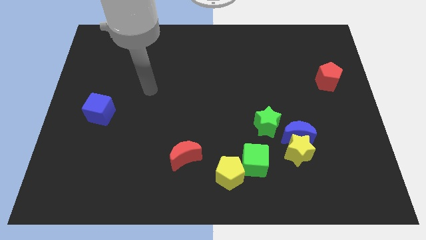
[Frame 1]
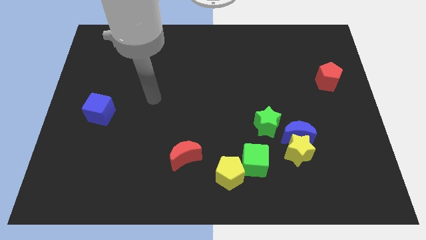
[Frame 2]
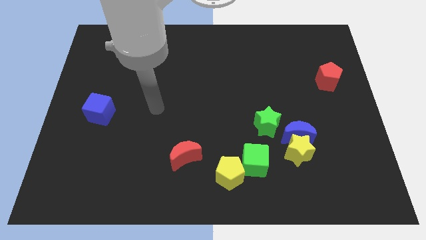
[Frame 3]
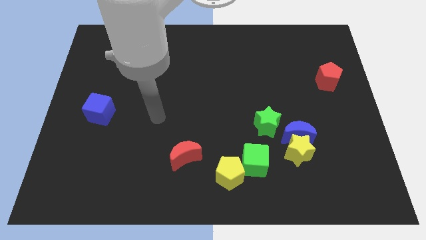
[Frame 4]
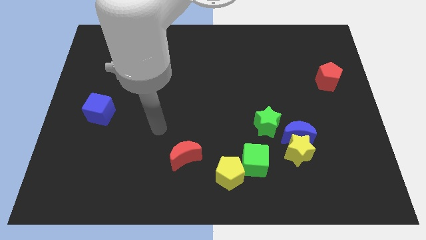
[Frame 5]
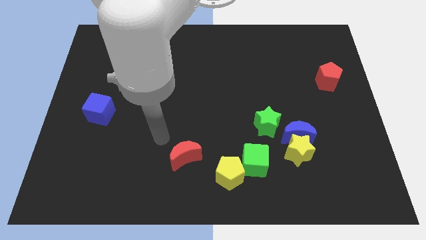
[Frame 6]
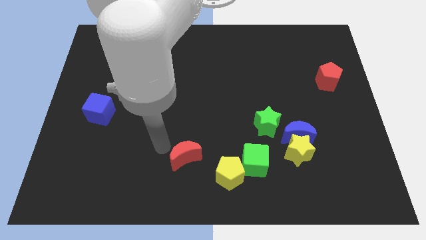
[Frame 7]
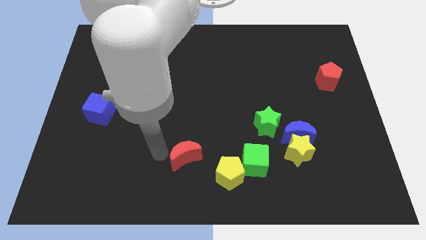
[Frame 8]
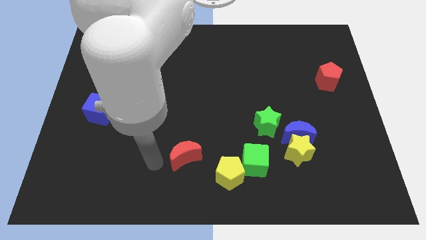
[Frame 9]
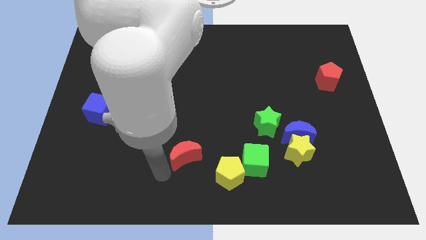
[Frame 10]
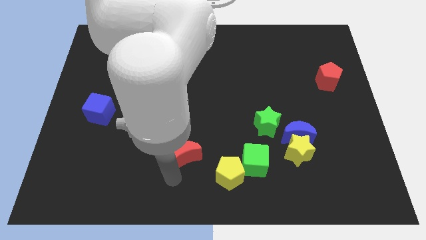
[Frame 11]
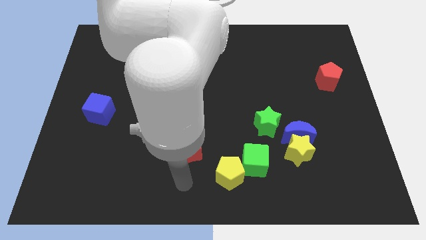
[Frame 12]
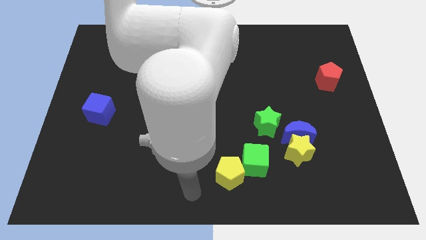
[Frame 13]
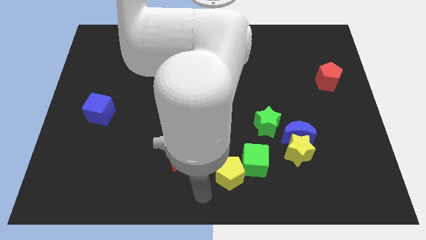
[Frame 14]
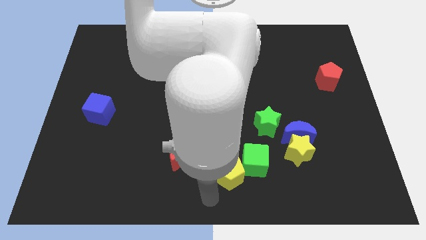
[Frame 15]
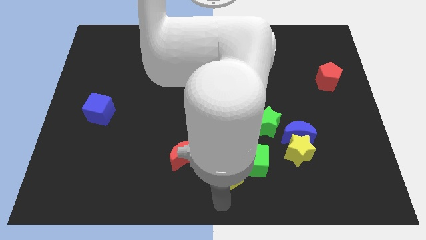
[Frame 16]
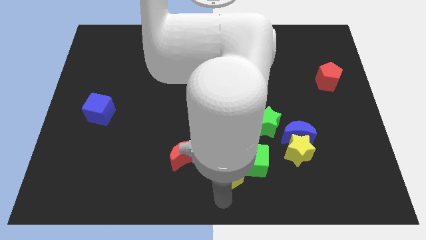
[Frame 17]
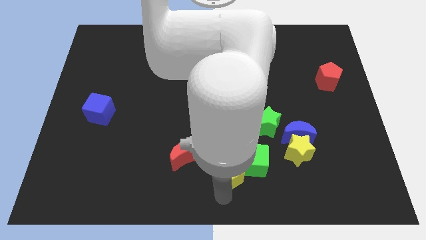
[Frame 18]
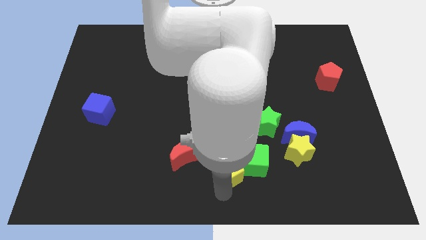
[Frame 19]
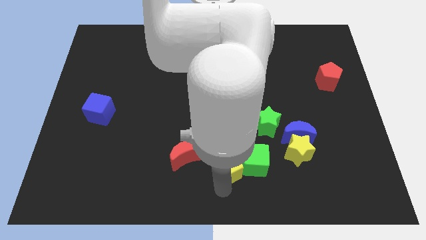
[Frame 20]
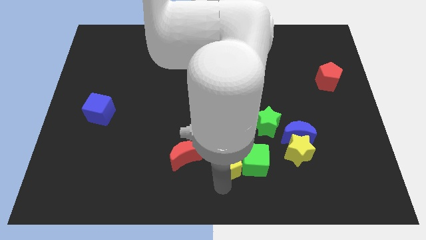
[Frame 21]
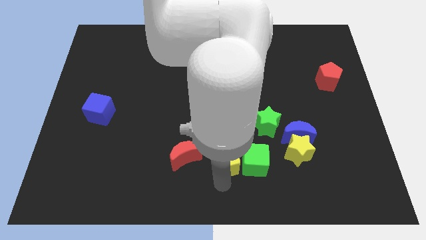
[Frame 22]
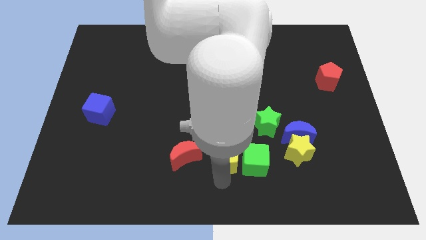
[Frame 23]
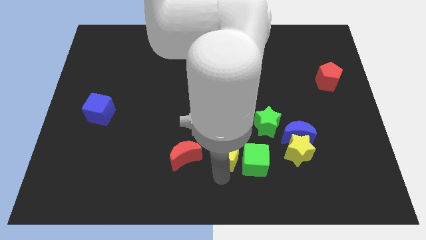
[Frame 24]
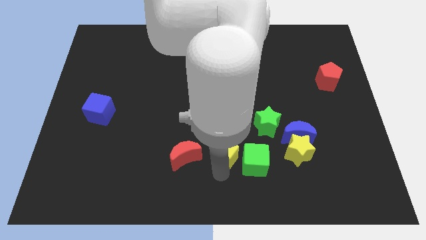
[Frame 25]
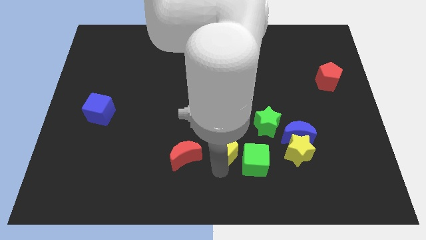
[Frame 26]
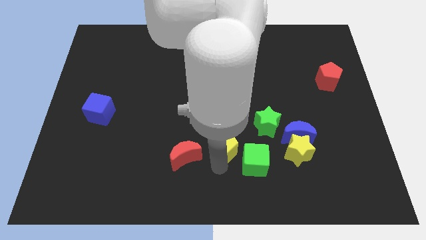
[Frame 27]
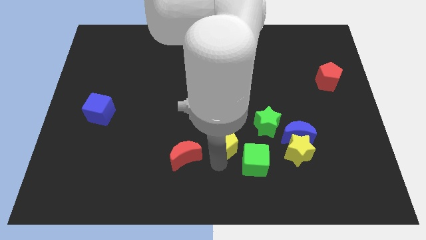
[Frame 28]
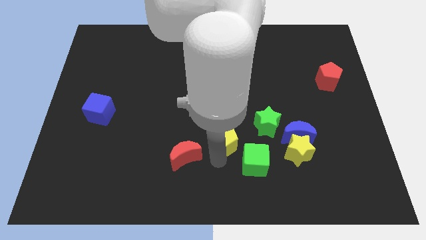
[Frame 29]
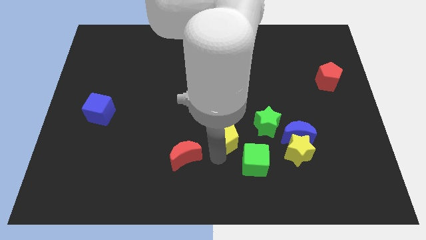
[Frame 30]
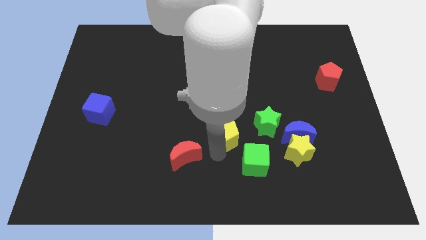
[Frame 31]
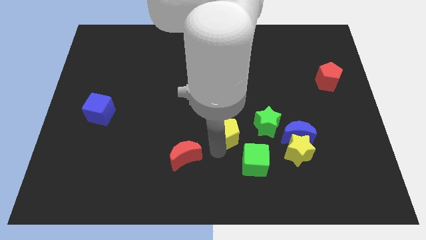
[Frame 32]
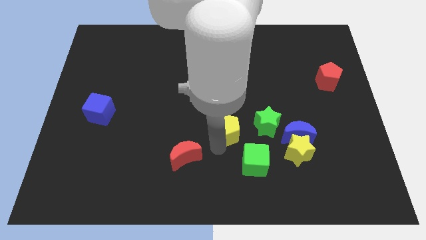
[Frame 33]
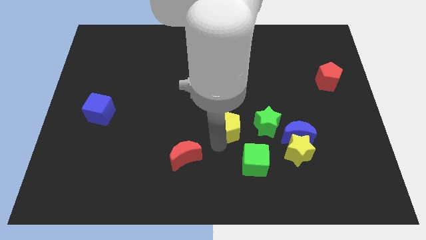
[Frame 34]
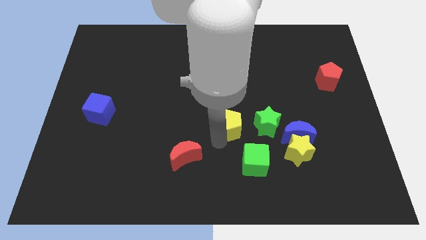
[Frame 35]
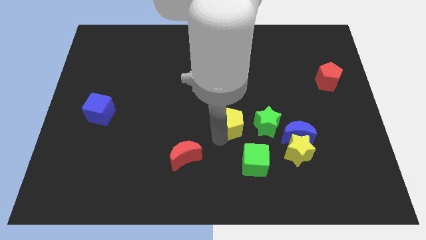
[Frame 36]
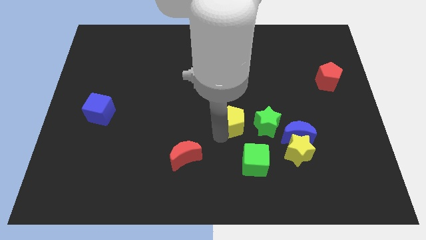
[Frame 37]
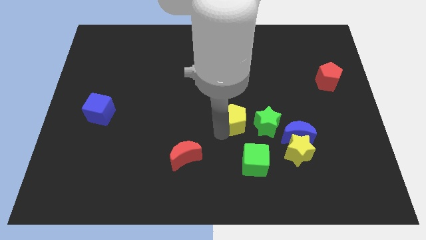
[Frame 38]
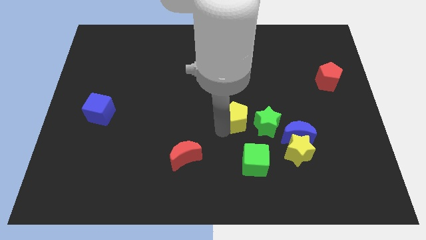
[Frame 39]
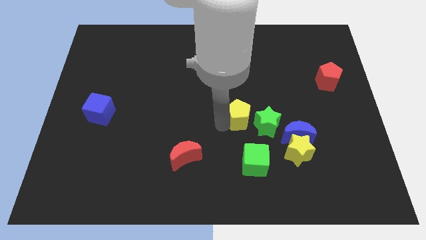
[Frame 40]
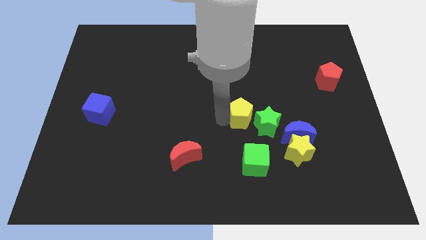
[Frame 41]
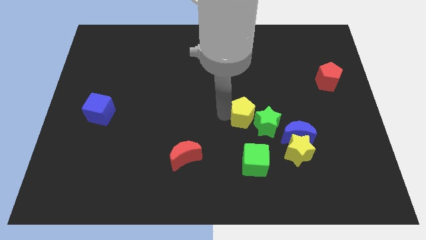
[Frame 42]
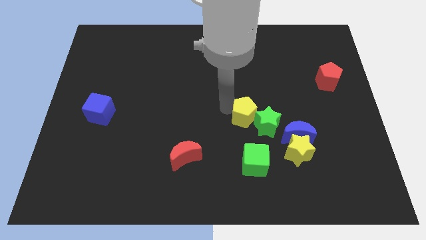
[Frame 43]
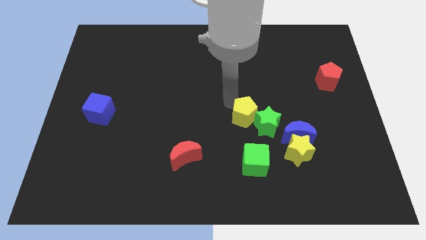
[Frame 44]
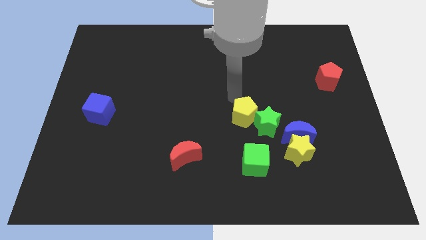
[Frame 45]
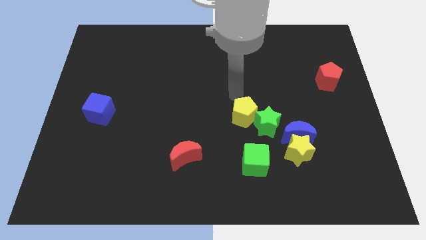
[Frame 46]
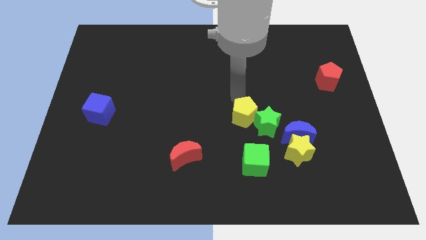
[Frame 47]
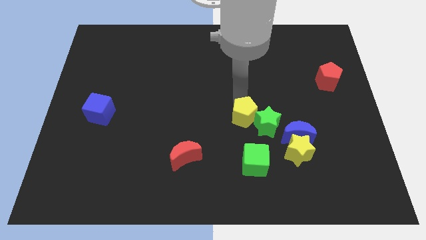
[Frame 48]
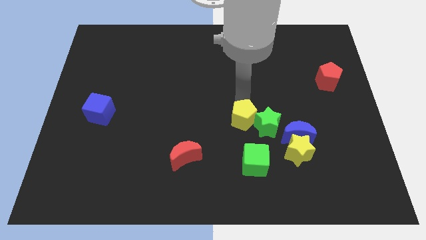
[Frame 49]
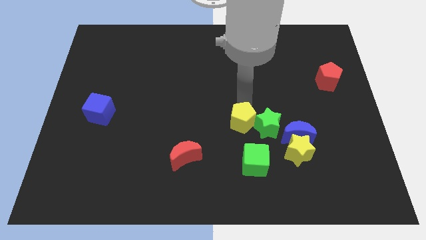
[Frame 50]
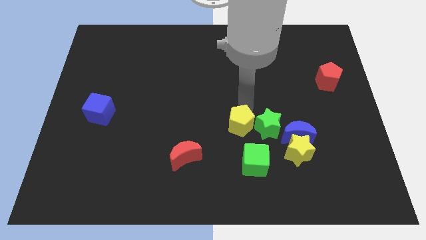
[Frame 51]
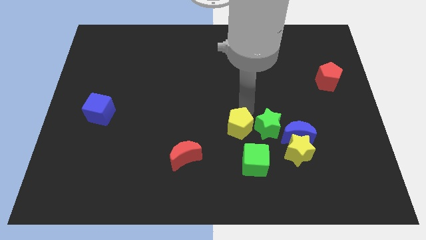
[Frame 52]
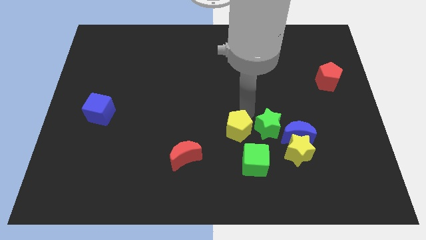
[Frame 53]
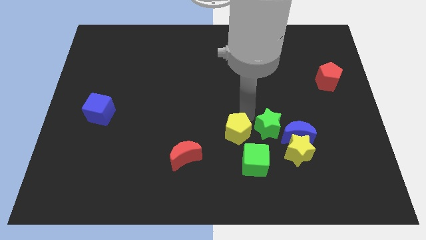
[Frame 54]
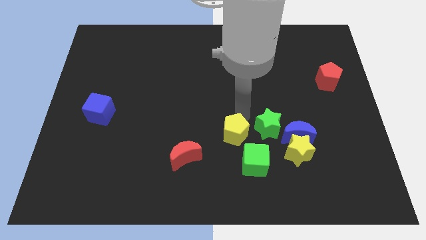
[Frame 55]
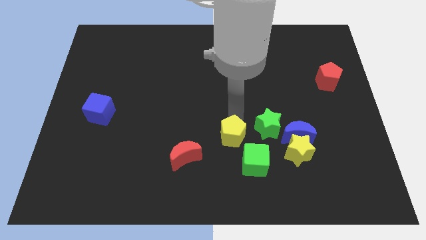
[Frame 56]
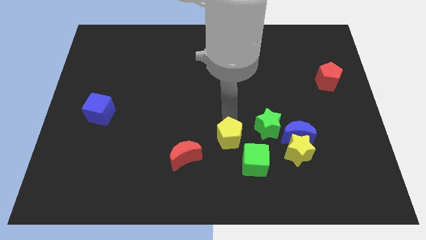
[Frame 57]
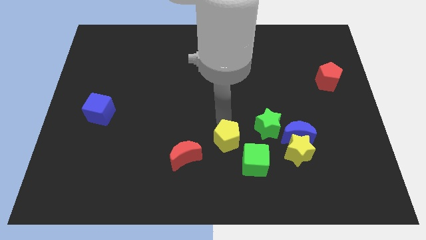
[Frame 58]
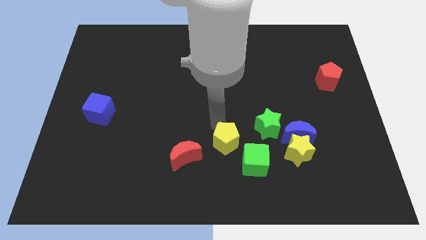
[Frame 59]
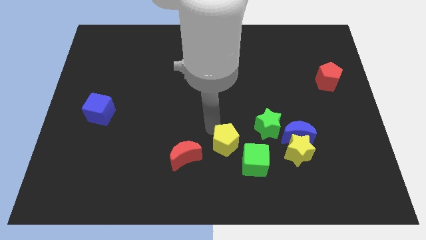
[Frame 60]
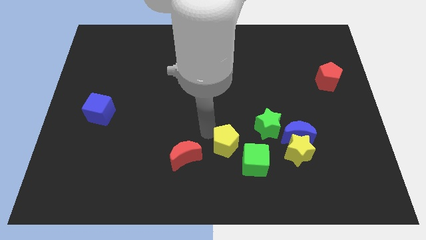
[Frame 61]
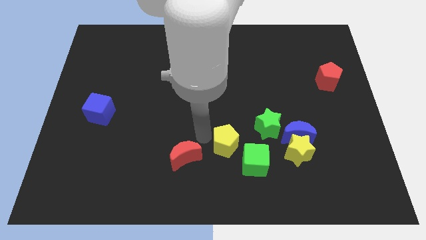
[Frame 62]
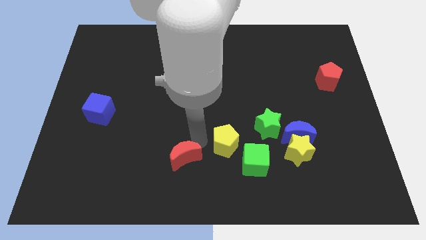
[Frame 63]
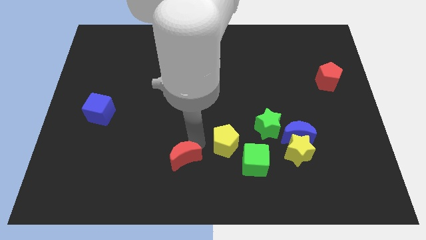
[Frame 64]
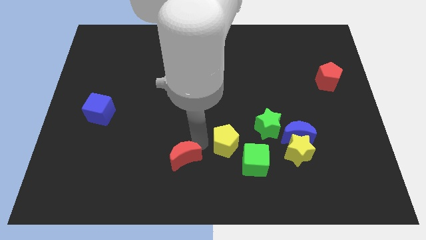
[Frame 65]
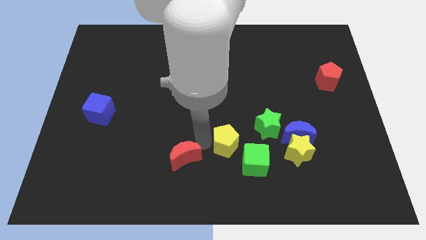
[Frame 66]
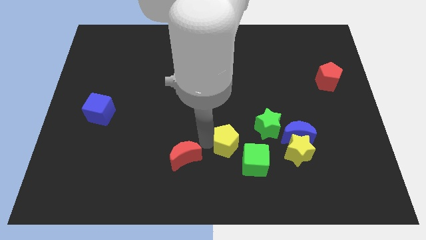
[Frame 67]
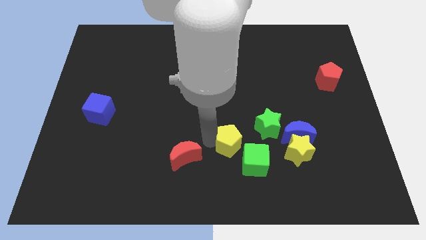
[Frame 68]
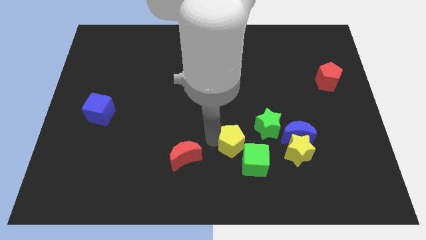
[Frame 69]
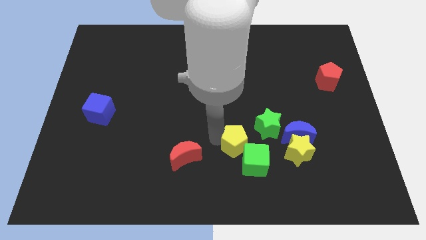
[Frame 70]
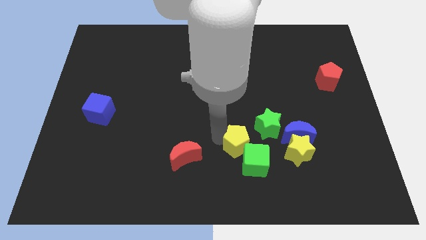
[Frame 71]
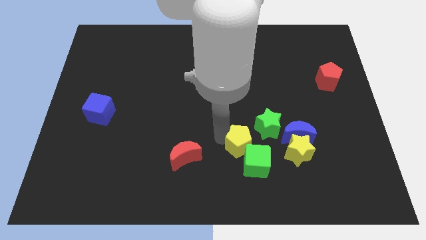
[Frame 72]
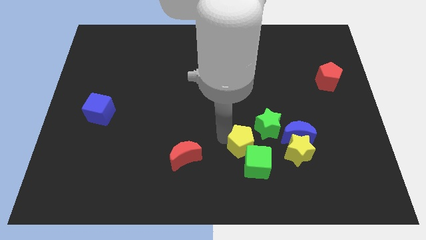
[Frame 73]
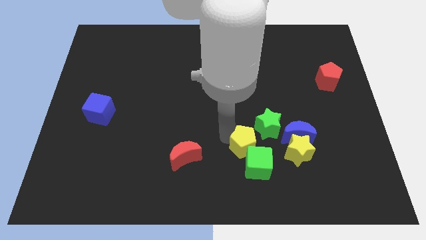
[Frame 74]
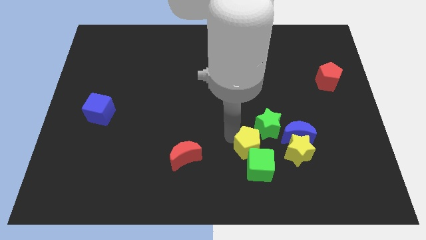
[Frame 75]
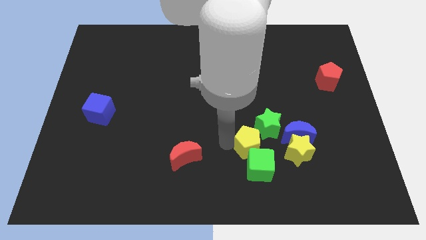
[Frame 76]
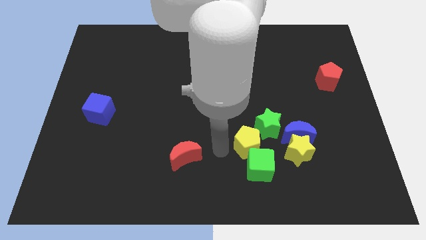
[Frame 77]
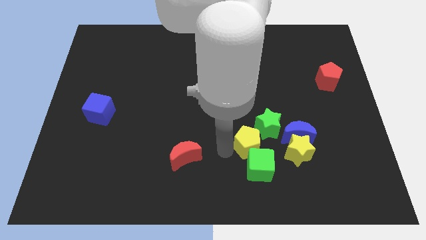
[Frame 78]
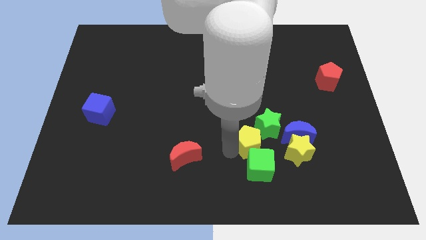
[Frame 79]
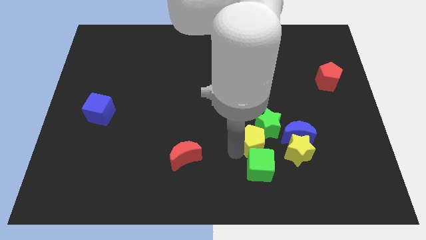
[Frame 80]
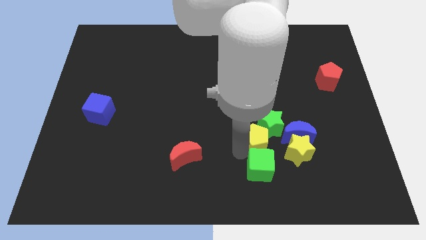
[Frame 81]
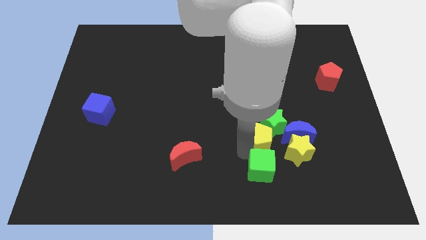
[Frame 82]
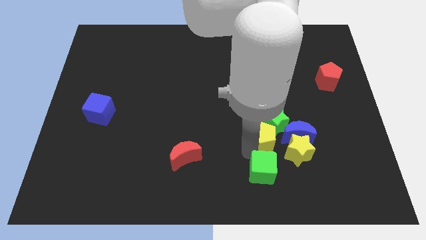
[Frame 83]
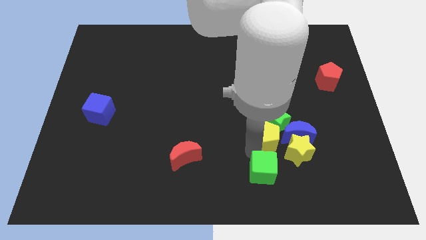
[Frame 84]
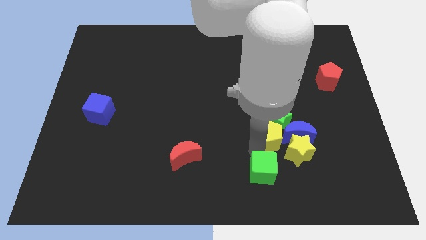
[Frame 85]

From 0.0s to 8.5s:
slide the yellow pentagon towards the blue moon
